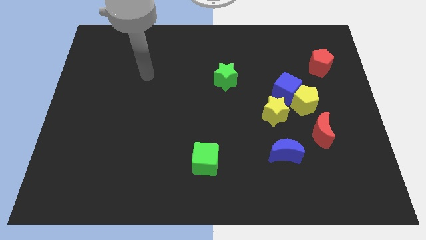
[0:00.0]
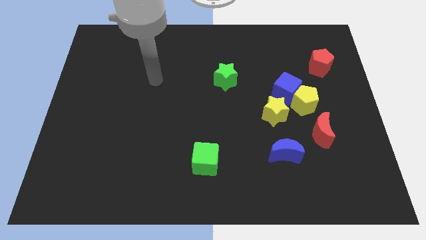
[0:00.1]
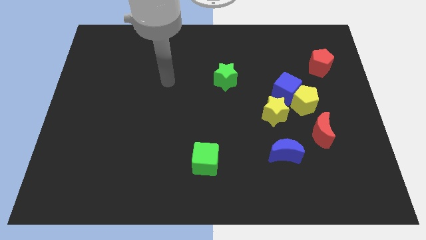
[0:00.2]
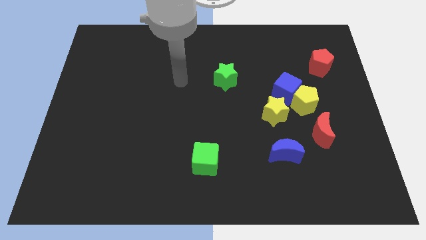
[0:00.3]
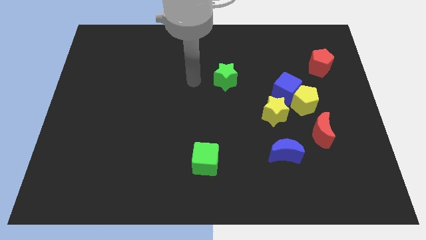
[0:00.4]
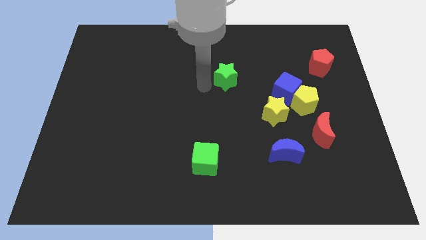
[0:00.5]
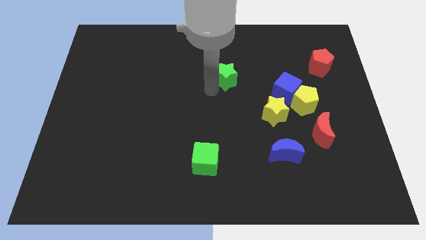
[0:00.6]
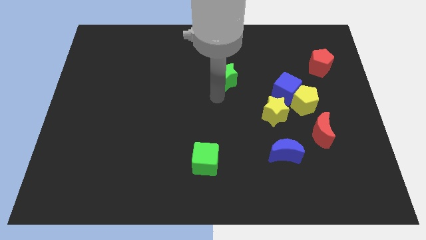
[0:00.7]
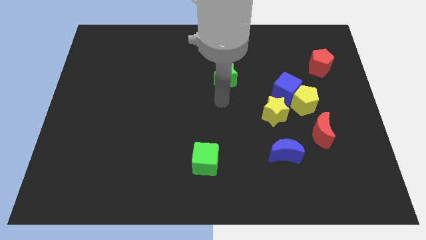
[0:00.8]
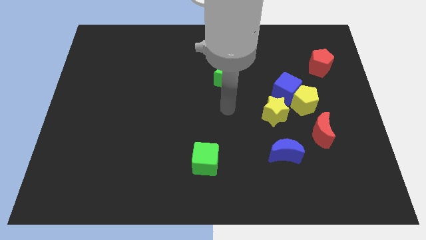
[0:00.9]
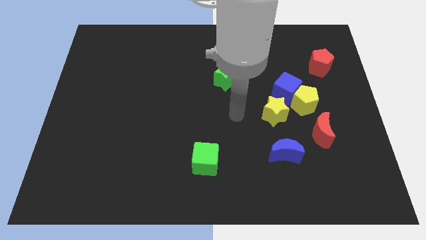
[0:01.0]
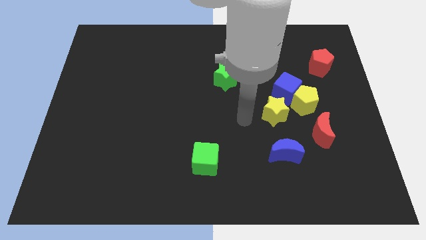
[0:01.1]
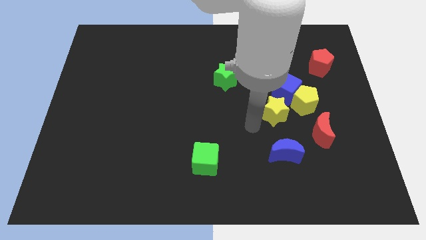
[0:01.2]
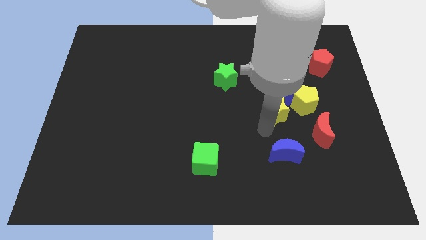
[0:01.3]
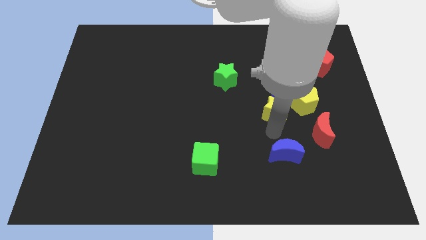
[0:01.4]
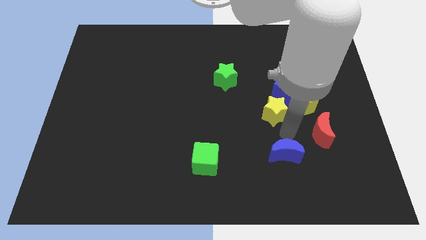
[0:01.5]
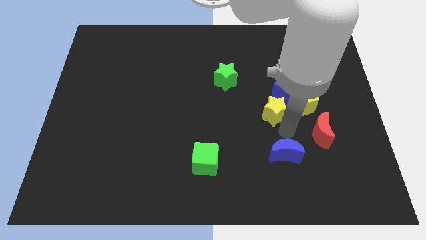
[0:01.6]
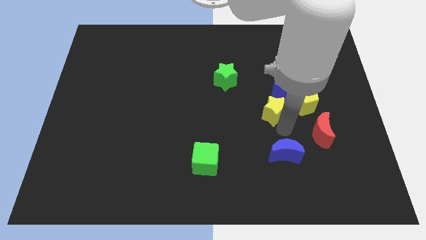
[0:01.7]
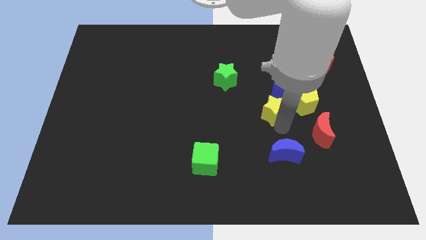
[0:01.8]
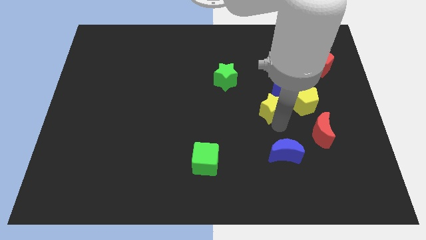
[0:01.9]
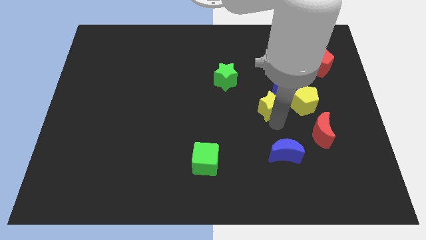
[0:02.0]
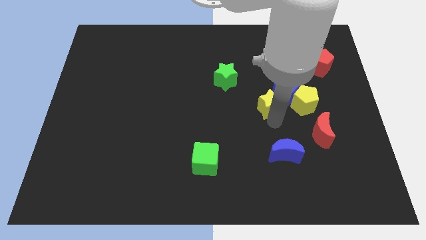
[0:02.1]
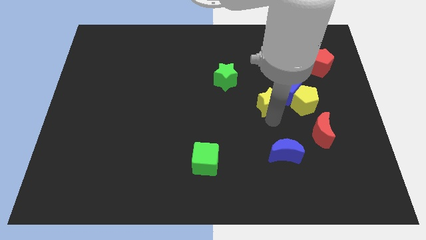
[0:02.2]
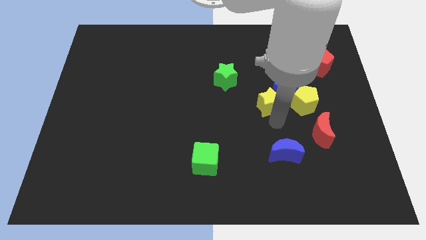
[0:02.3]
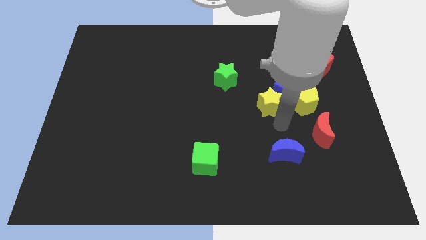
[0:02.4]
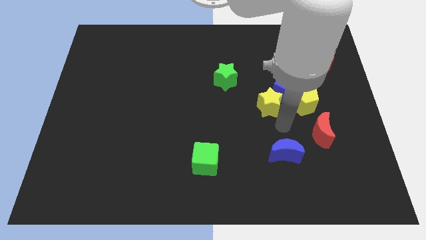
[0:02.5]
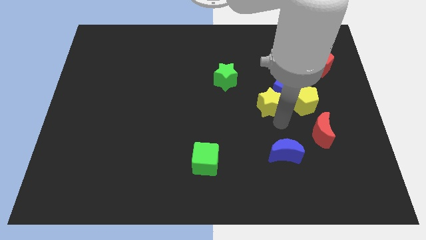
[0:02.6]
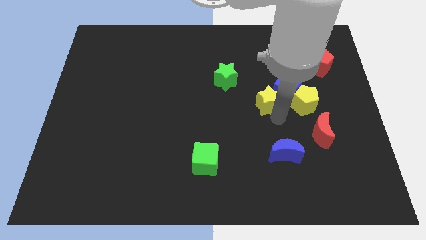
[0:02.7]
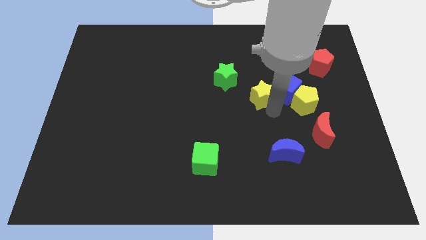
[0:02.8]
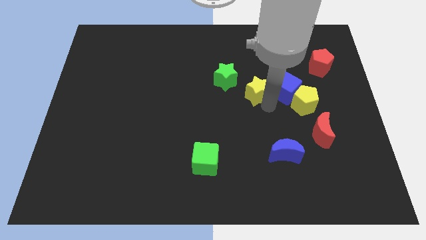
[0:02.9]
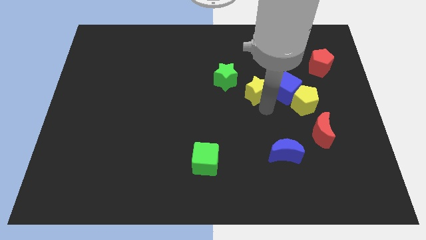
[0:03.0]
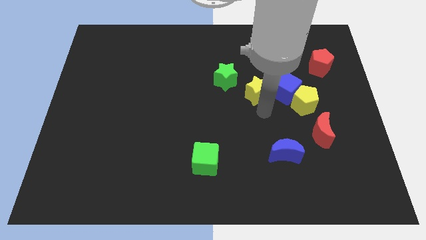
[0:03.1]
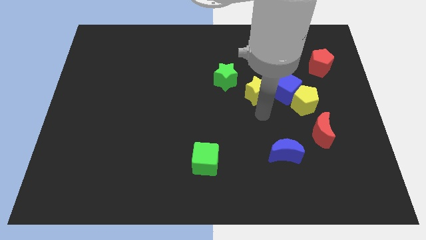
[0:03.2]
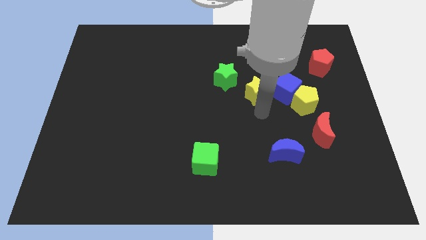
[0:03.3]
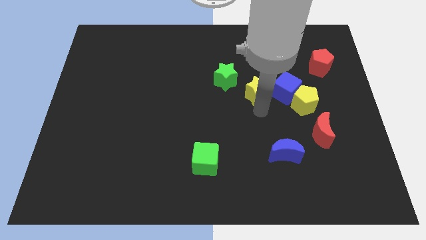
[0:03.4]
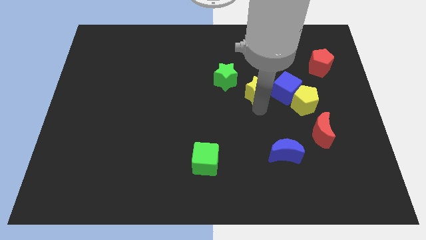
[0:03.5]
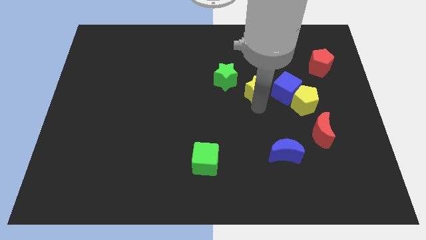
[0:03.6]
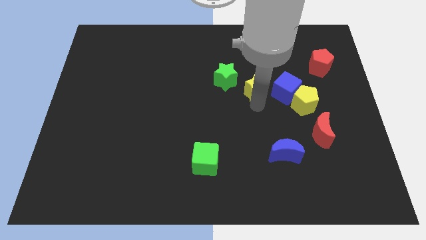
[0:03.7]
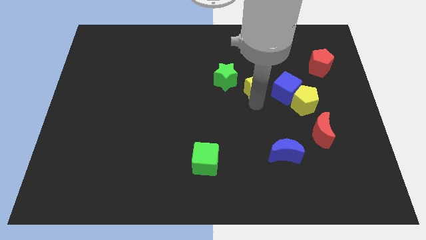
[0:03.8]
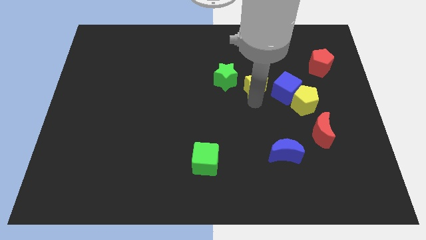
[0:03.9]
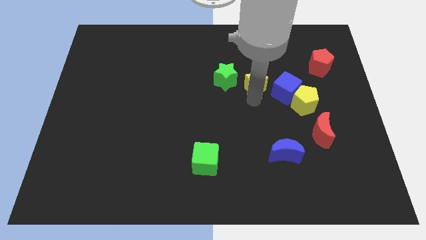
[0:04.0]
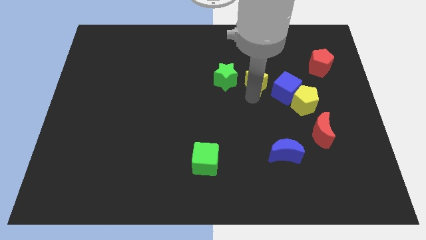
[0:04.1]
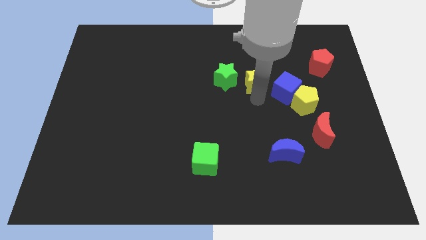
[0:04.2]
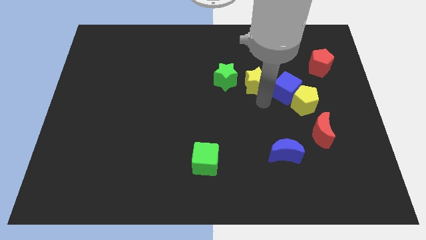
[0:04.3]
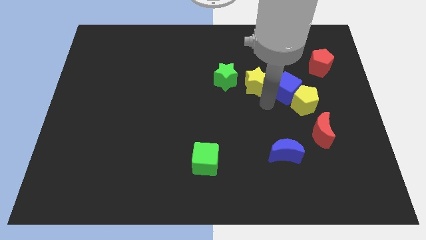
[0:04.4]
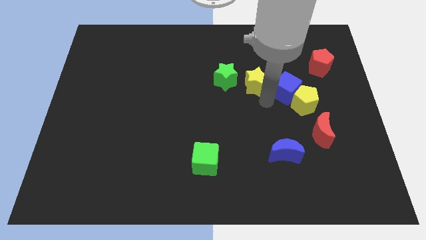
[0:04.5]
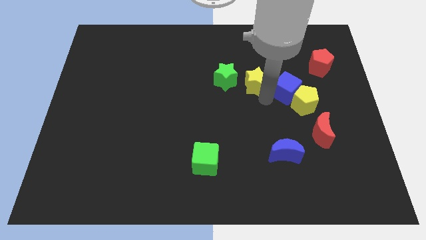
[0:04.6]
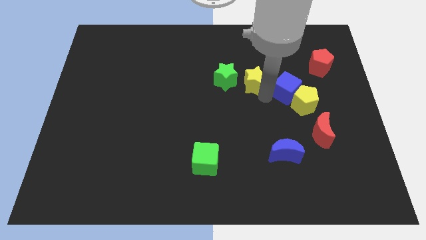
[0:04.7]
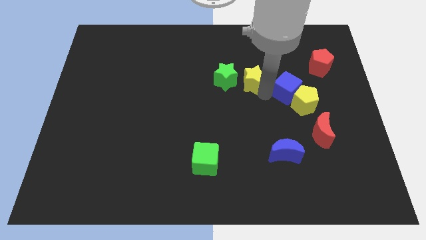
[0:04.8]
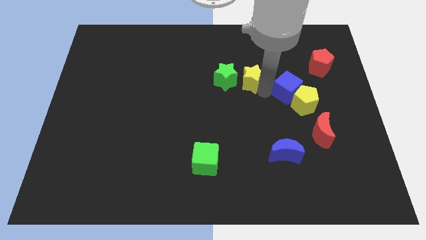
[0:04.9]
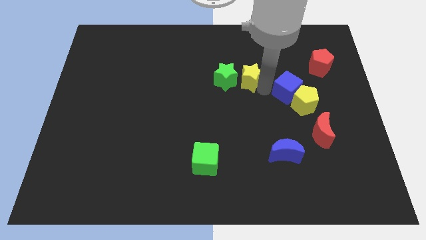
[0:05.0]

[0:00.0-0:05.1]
slide the yellow star to the top right side of the green star

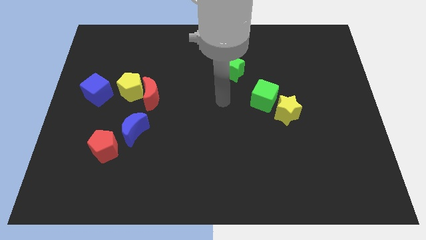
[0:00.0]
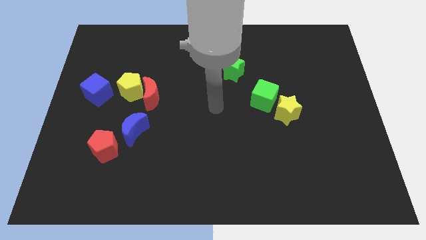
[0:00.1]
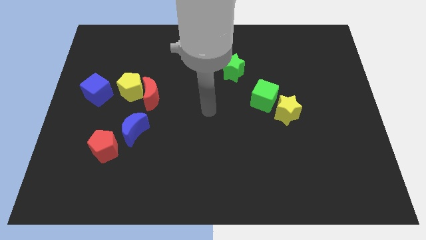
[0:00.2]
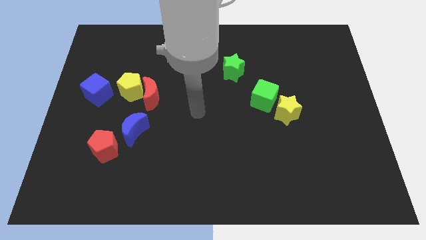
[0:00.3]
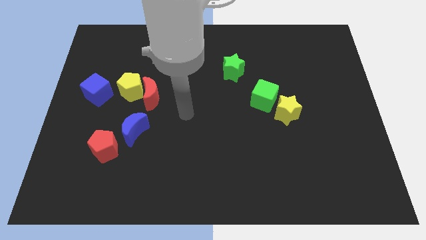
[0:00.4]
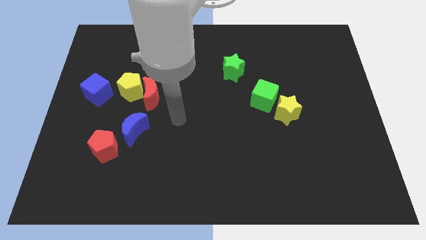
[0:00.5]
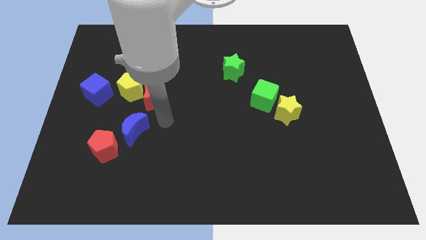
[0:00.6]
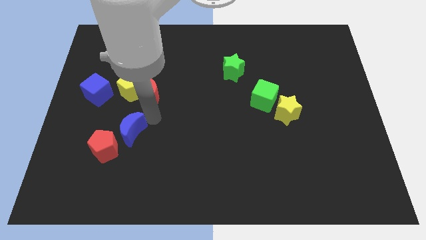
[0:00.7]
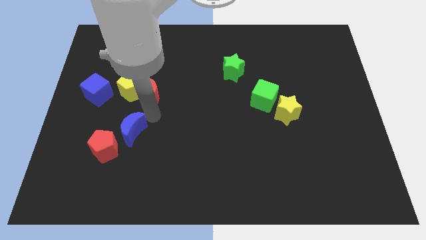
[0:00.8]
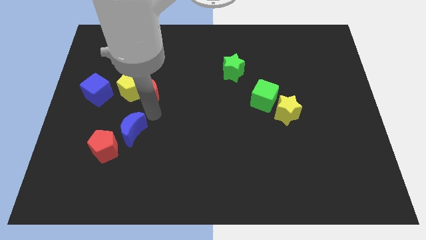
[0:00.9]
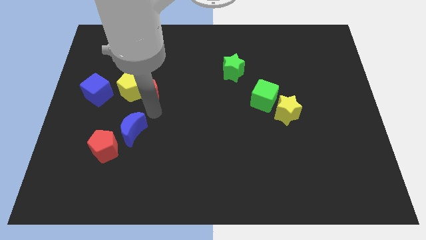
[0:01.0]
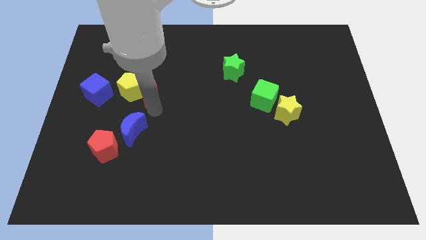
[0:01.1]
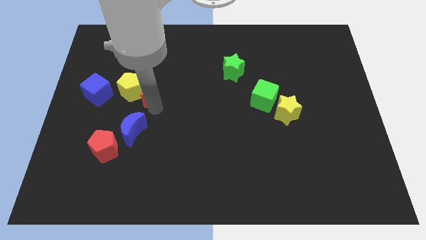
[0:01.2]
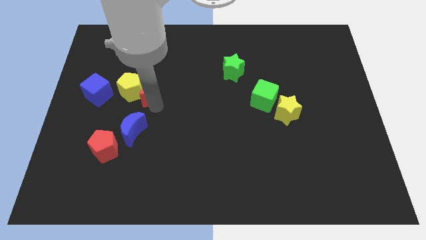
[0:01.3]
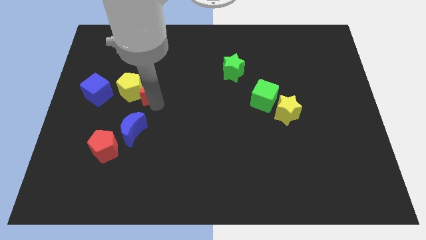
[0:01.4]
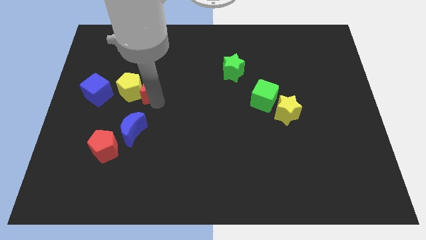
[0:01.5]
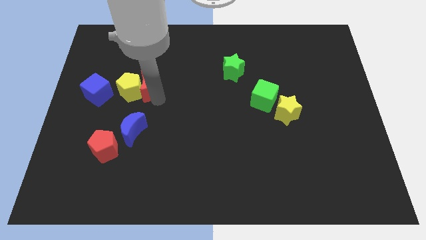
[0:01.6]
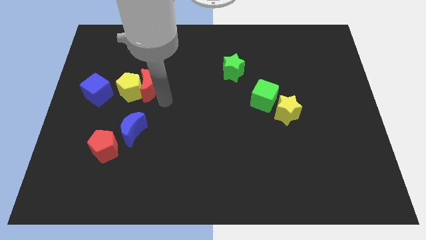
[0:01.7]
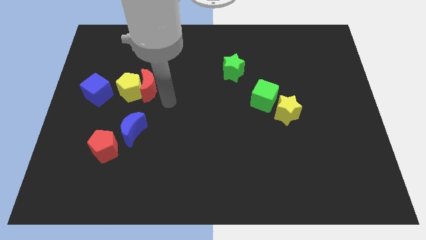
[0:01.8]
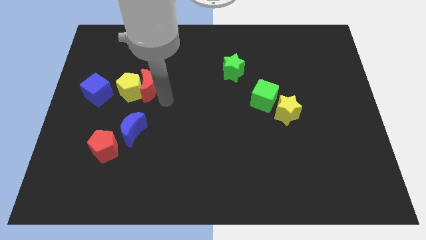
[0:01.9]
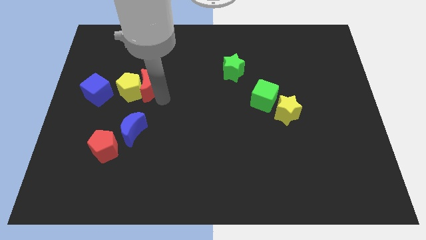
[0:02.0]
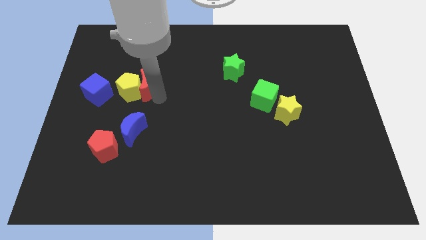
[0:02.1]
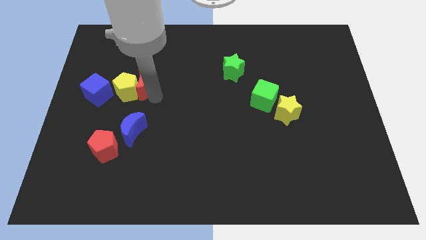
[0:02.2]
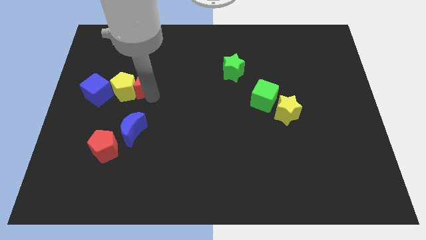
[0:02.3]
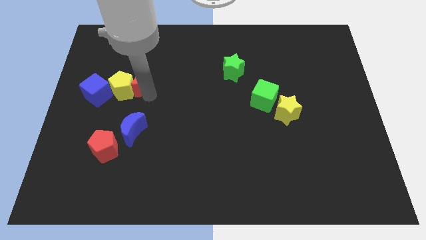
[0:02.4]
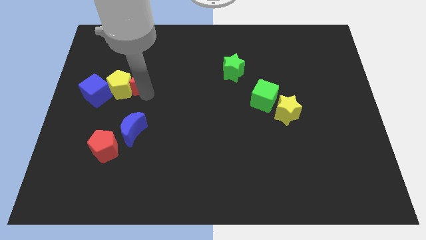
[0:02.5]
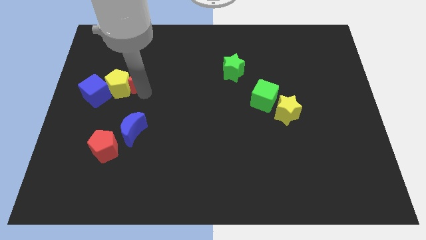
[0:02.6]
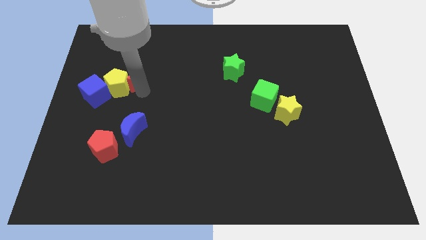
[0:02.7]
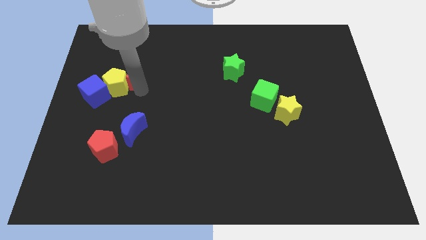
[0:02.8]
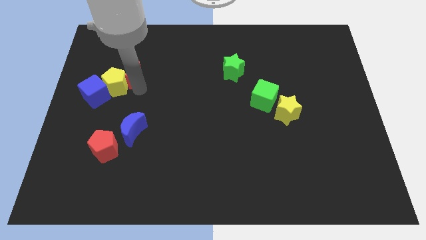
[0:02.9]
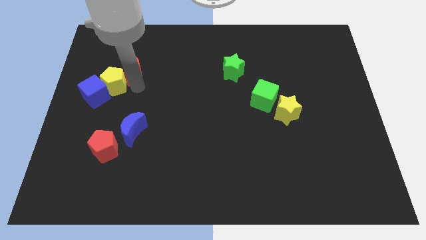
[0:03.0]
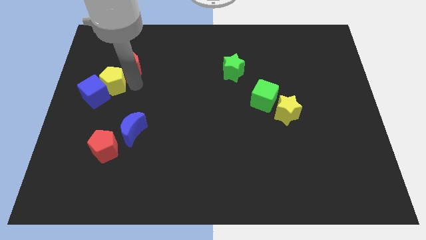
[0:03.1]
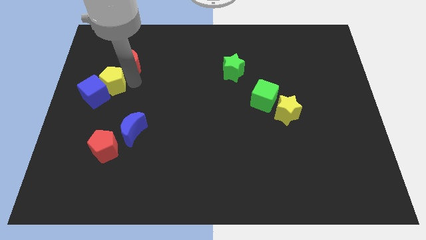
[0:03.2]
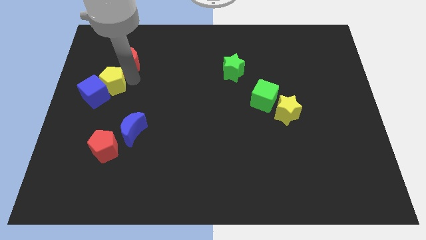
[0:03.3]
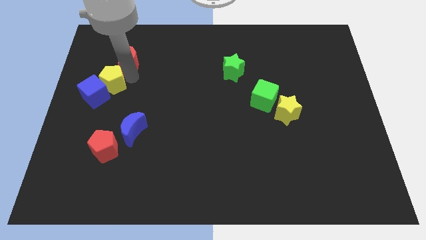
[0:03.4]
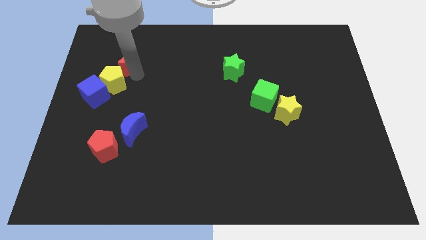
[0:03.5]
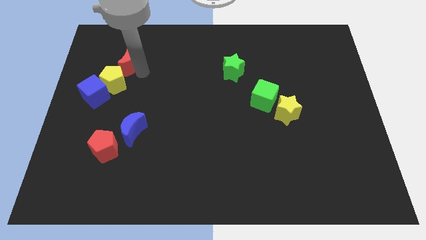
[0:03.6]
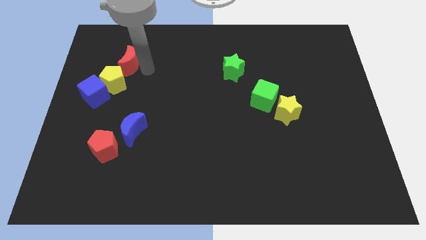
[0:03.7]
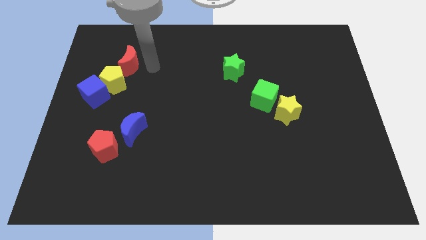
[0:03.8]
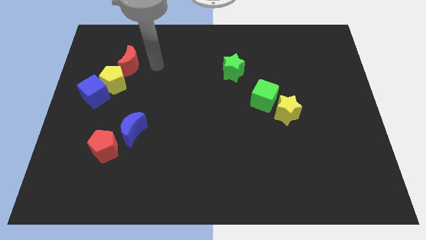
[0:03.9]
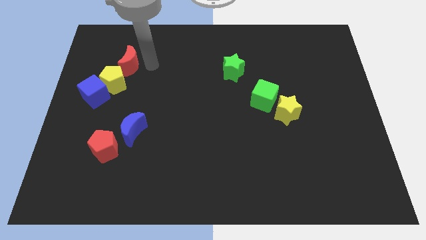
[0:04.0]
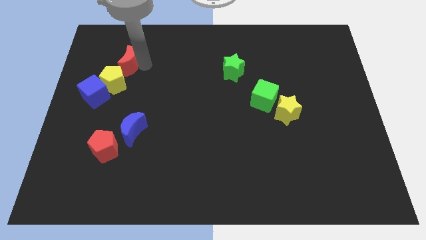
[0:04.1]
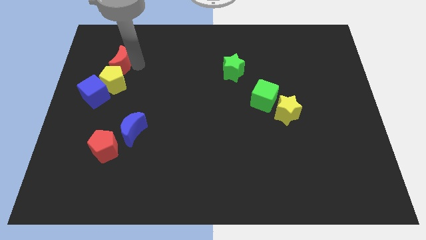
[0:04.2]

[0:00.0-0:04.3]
move the red moon above the blue cube
